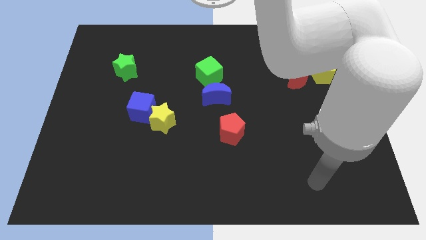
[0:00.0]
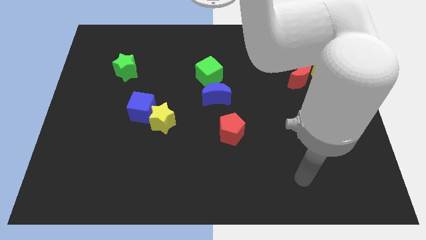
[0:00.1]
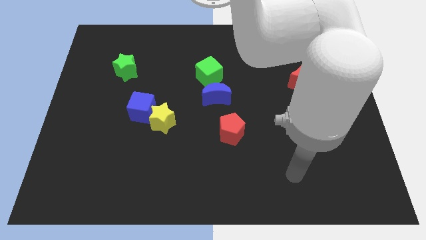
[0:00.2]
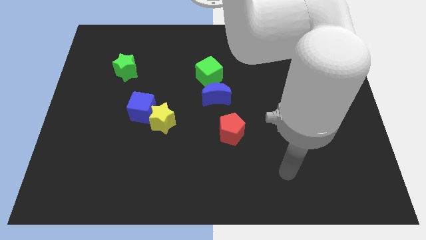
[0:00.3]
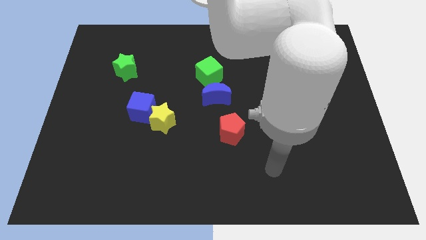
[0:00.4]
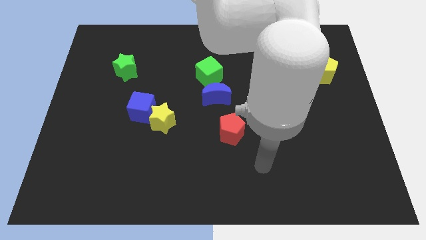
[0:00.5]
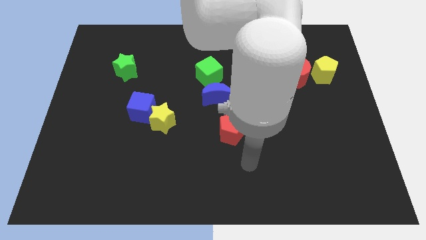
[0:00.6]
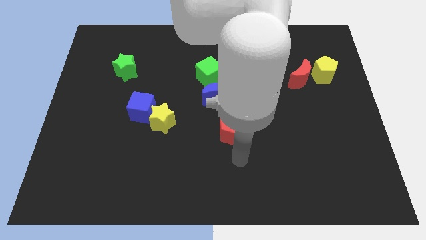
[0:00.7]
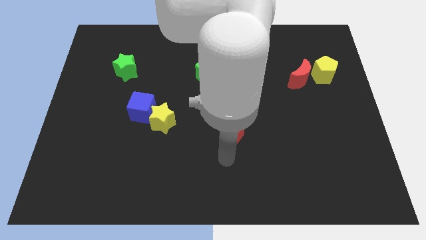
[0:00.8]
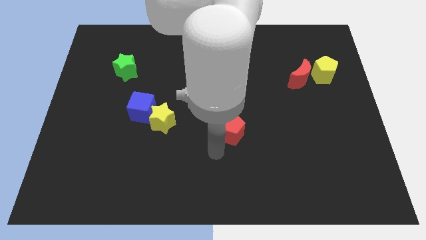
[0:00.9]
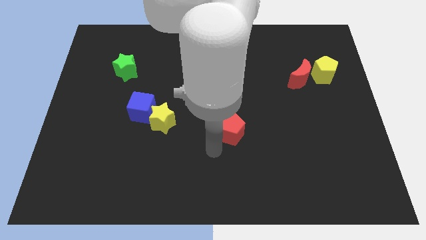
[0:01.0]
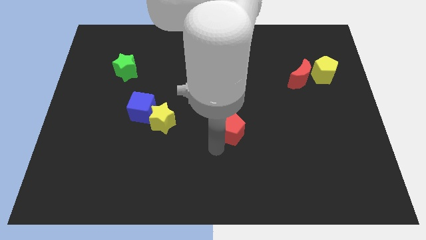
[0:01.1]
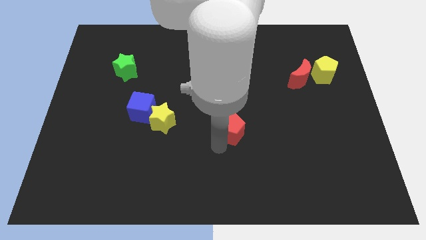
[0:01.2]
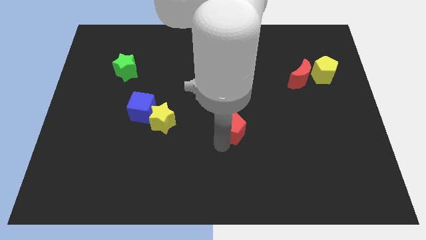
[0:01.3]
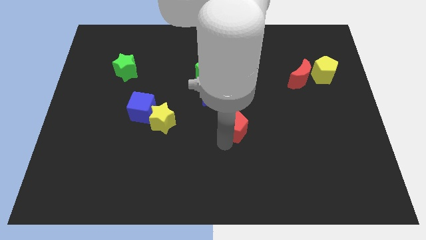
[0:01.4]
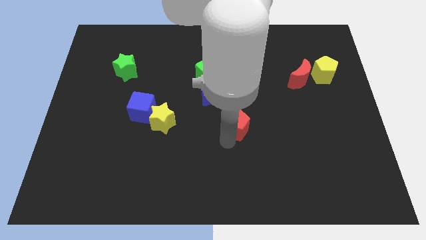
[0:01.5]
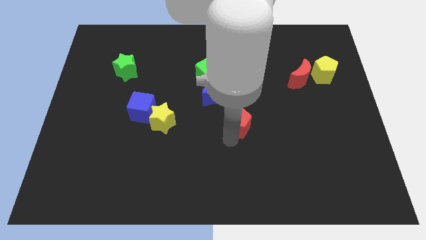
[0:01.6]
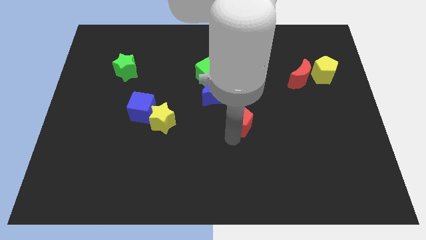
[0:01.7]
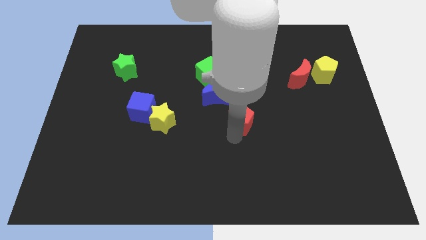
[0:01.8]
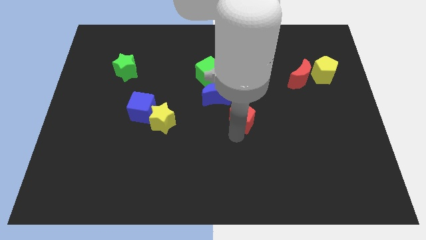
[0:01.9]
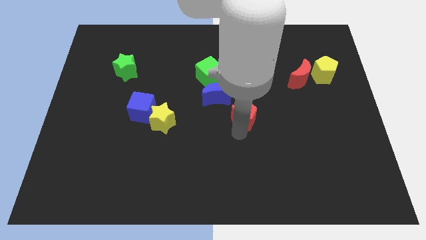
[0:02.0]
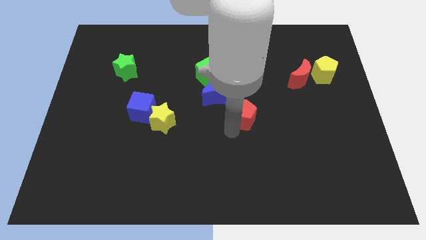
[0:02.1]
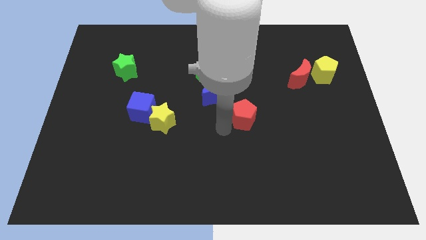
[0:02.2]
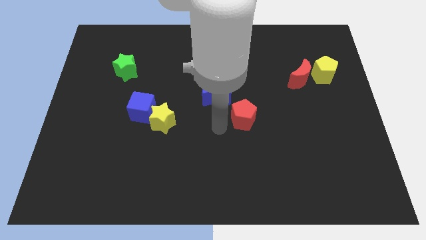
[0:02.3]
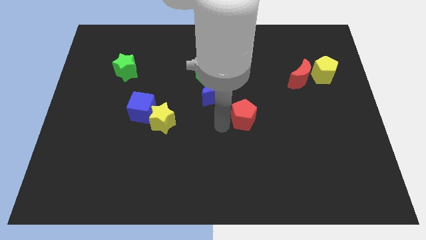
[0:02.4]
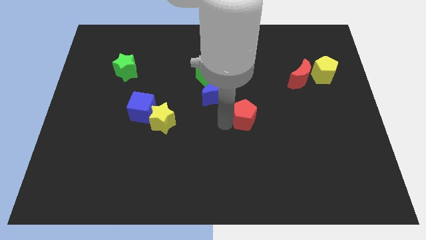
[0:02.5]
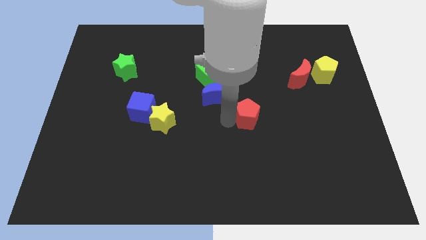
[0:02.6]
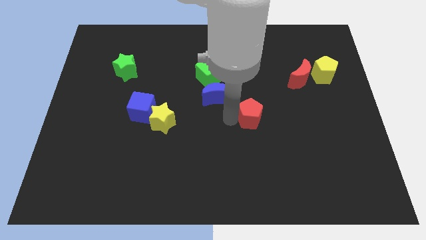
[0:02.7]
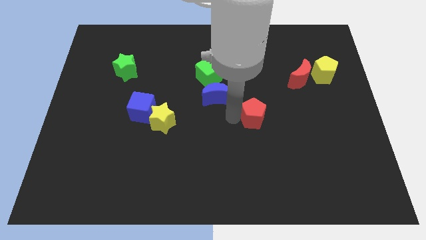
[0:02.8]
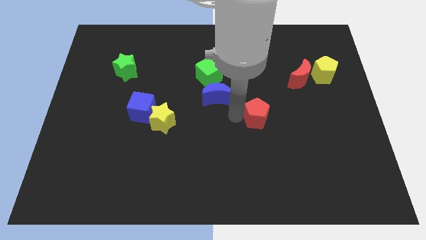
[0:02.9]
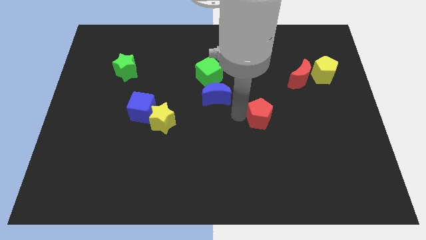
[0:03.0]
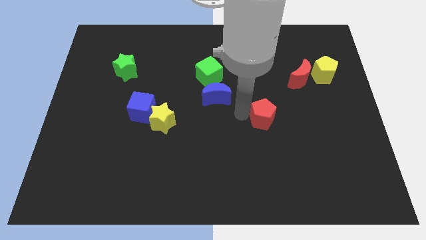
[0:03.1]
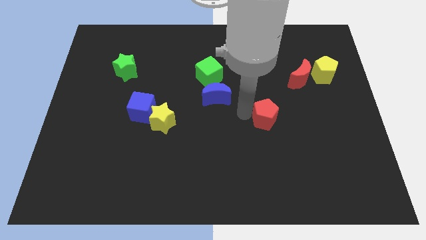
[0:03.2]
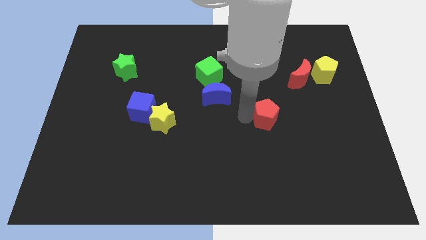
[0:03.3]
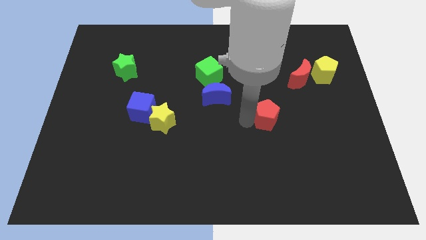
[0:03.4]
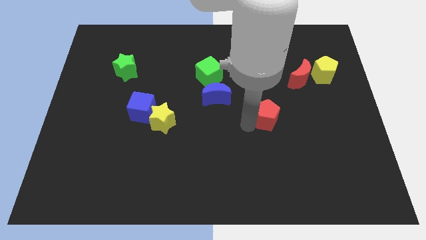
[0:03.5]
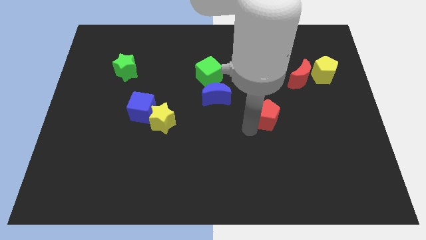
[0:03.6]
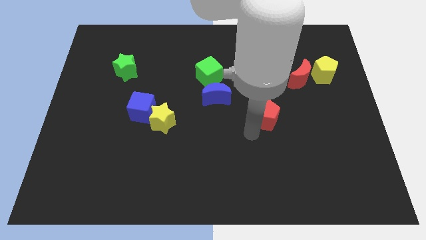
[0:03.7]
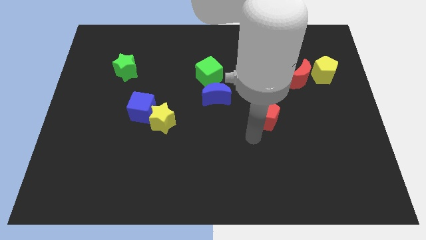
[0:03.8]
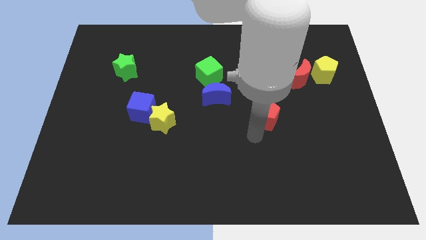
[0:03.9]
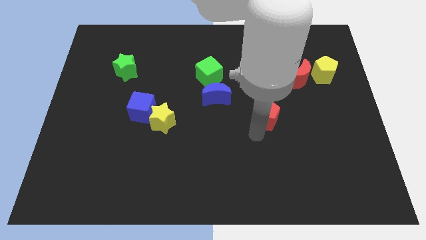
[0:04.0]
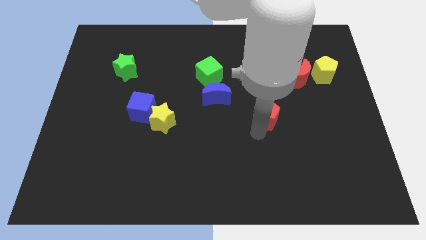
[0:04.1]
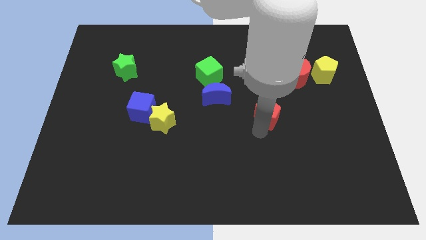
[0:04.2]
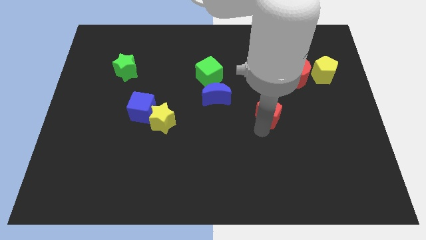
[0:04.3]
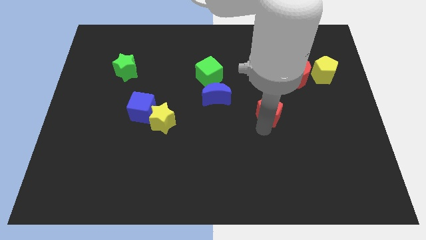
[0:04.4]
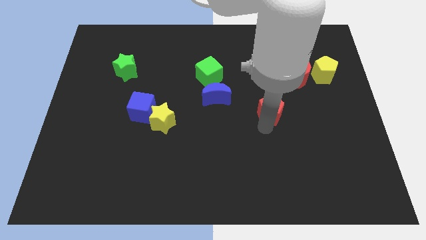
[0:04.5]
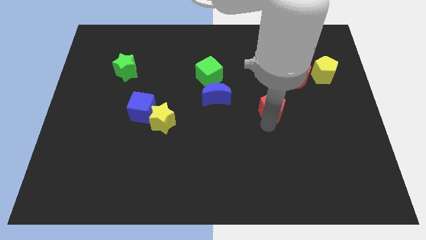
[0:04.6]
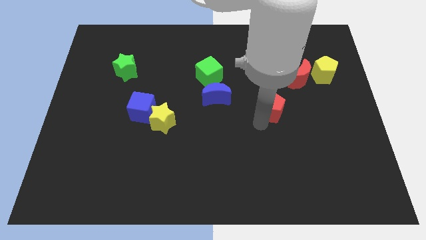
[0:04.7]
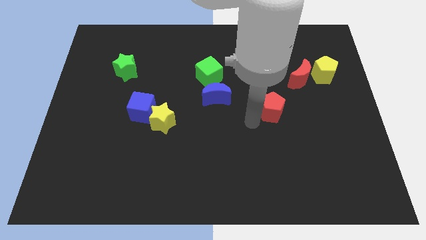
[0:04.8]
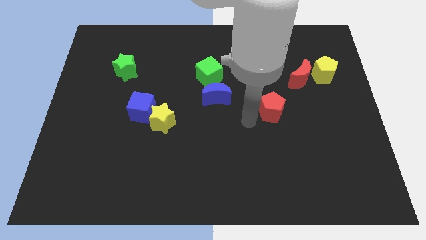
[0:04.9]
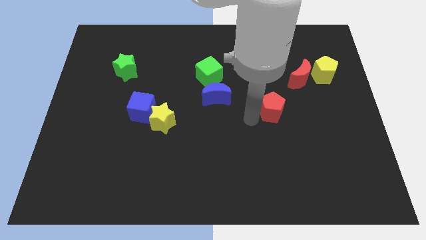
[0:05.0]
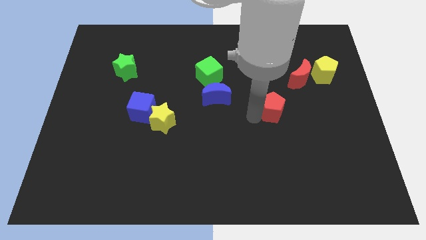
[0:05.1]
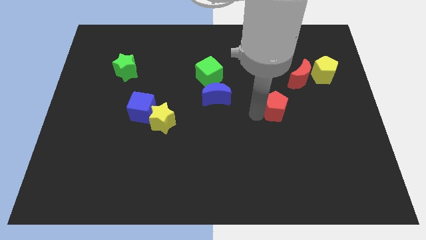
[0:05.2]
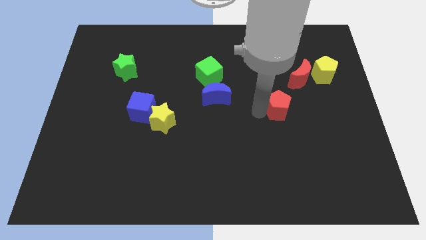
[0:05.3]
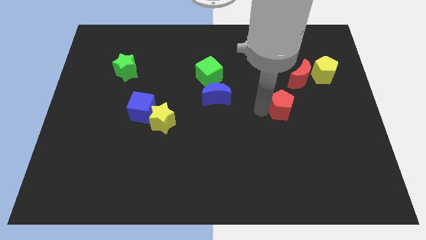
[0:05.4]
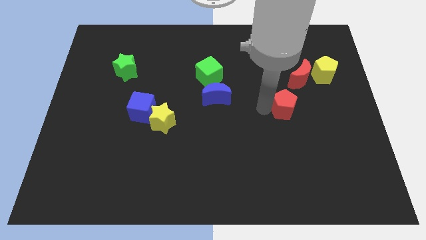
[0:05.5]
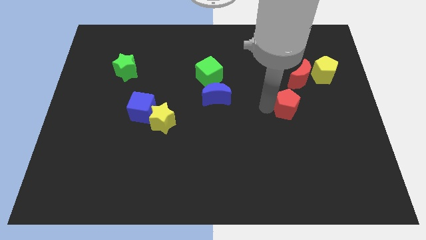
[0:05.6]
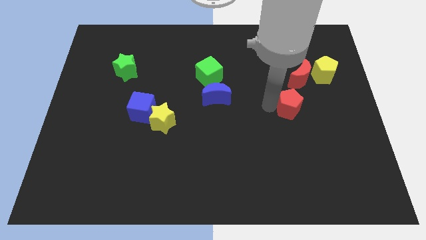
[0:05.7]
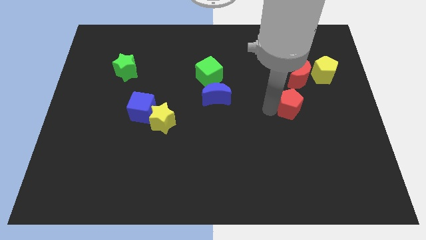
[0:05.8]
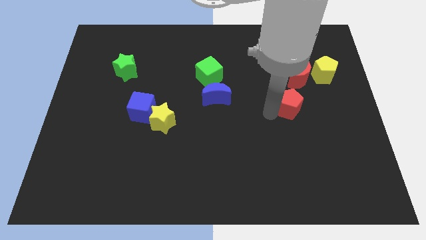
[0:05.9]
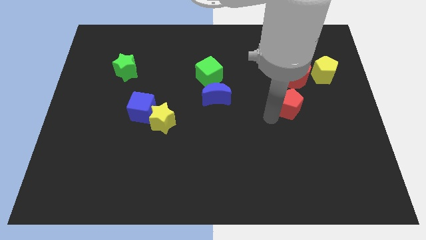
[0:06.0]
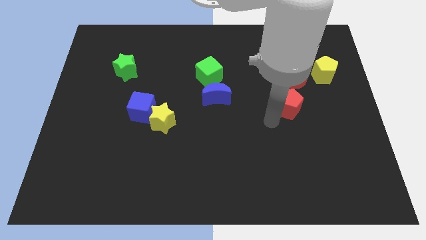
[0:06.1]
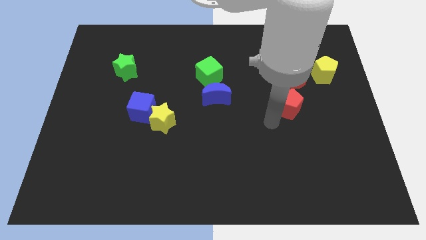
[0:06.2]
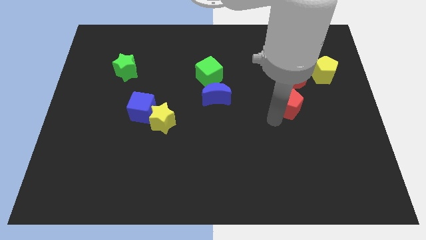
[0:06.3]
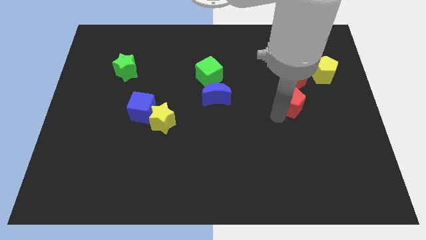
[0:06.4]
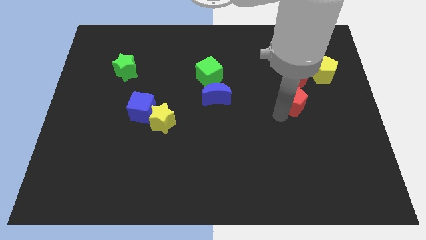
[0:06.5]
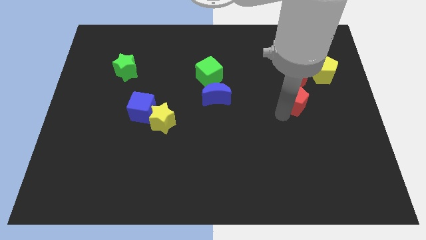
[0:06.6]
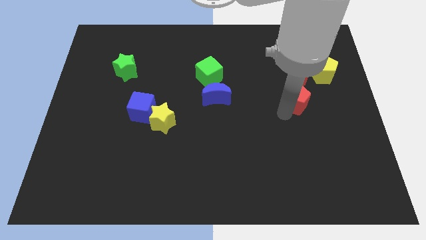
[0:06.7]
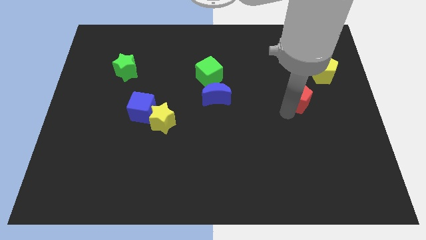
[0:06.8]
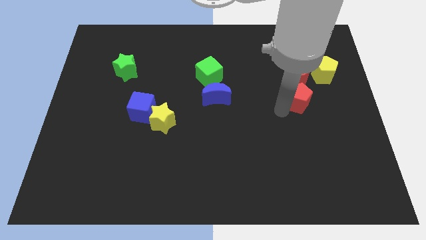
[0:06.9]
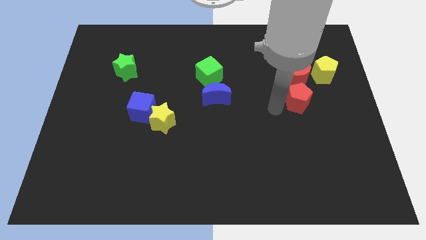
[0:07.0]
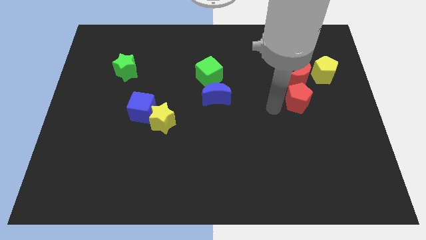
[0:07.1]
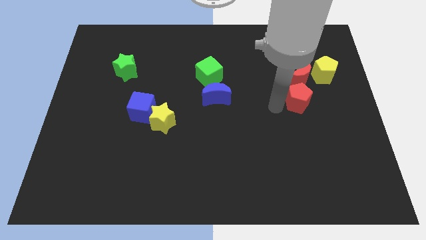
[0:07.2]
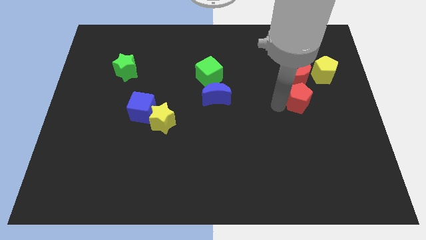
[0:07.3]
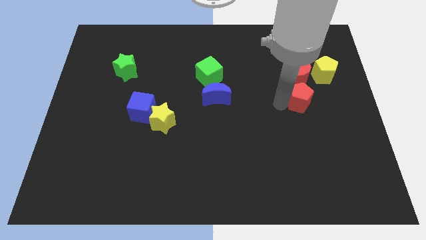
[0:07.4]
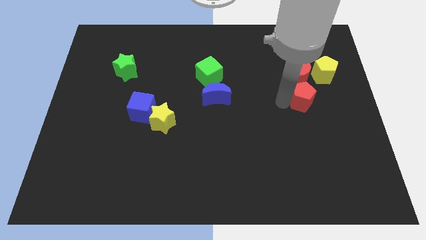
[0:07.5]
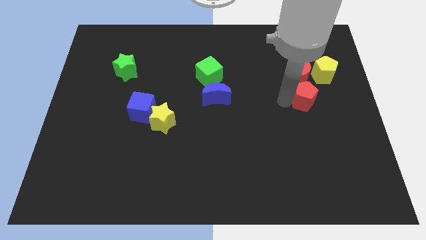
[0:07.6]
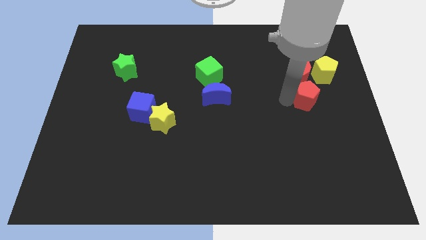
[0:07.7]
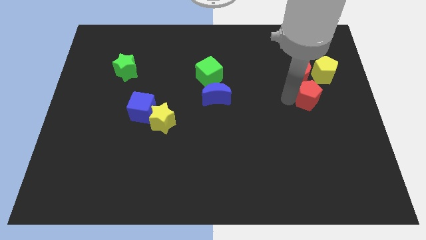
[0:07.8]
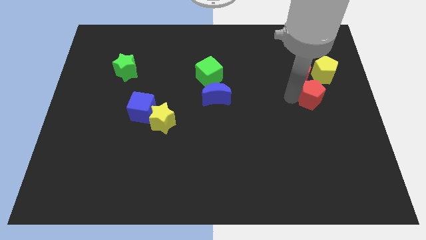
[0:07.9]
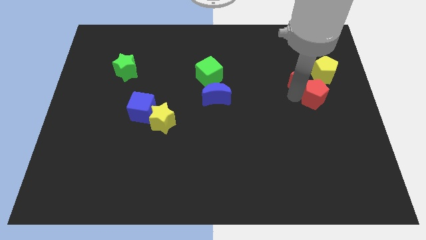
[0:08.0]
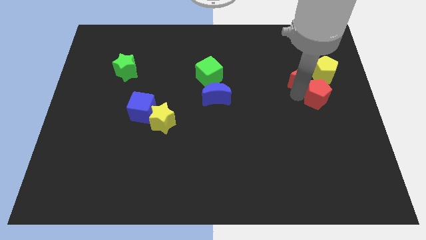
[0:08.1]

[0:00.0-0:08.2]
put the red pentagon to the center right
